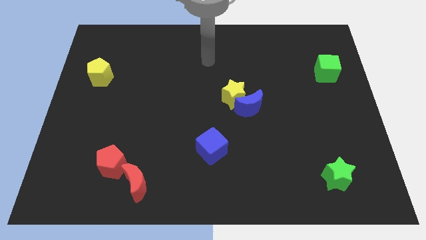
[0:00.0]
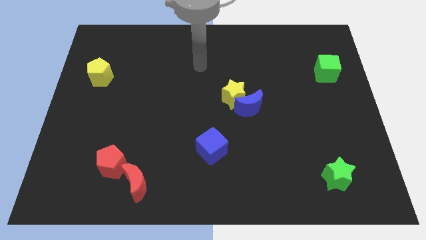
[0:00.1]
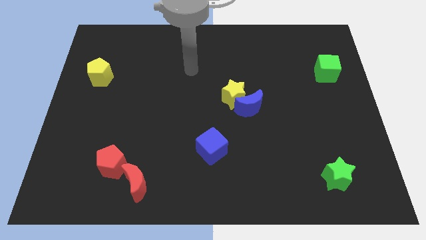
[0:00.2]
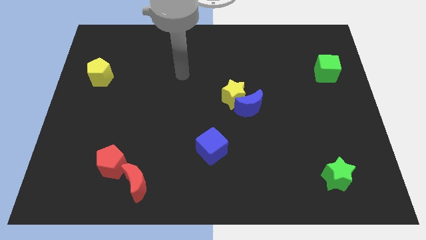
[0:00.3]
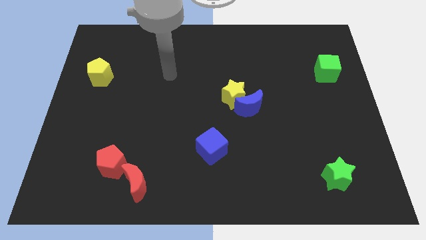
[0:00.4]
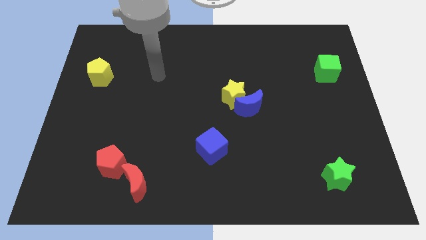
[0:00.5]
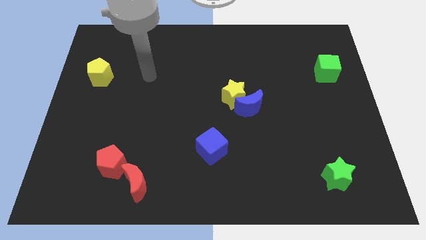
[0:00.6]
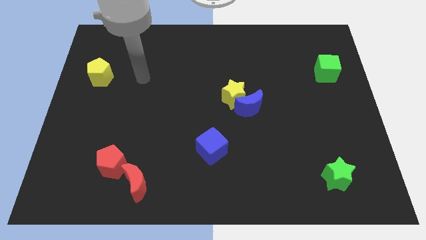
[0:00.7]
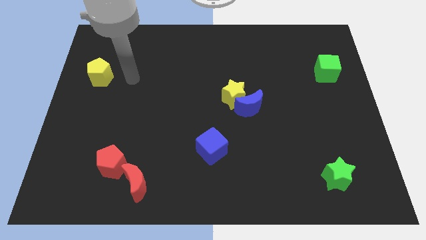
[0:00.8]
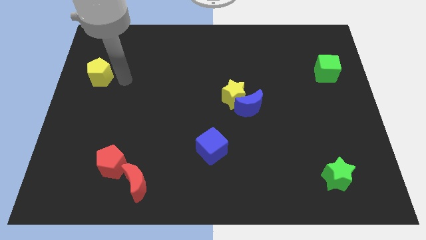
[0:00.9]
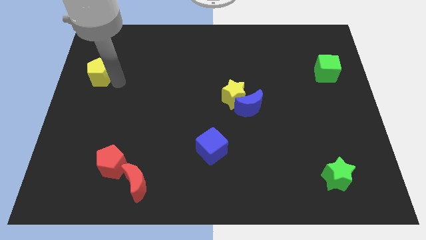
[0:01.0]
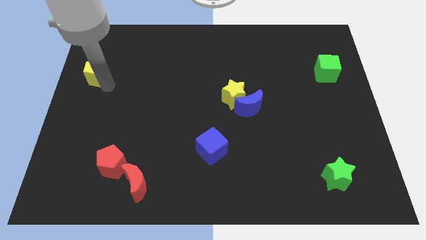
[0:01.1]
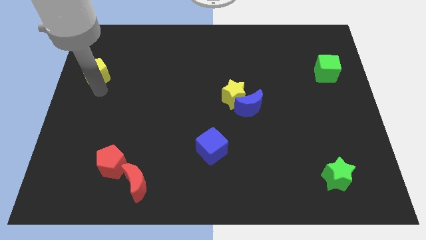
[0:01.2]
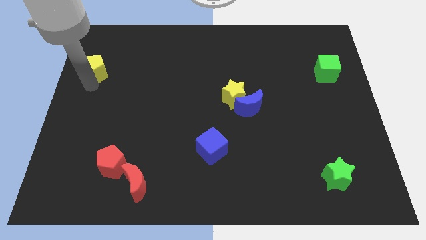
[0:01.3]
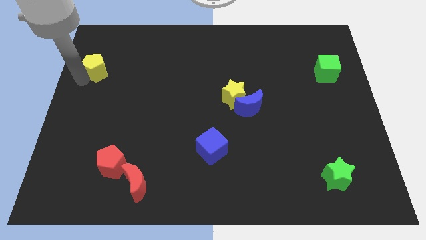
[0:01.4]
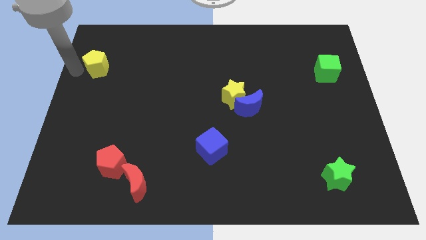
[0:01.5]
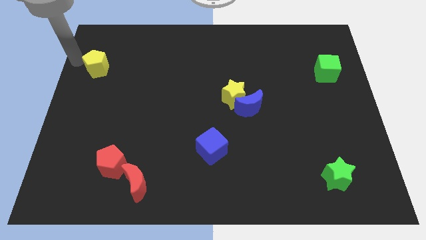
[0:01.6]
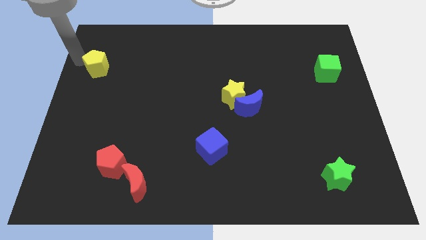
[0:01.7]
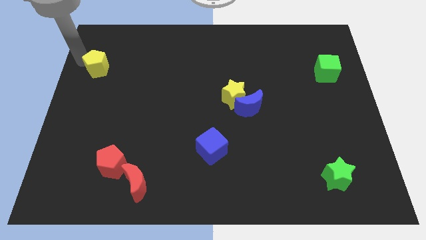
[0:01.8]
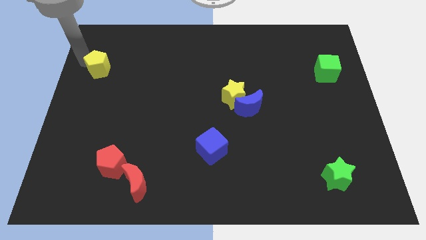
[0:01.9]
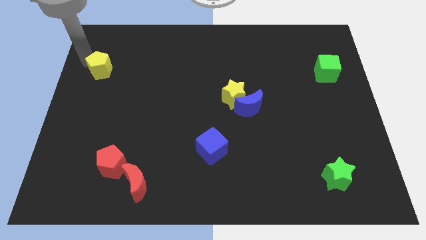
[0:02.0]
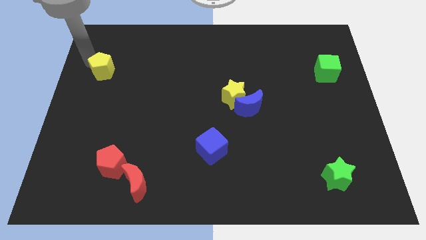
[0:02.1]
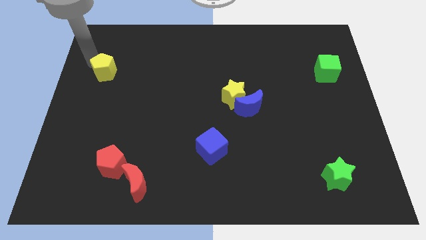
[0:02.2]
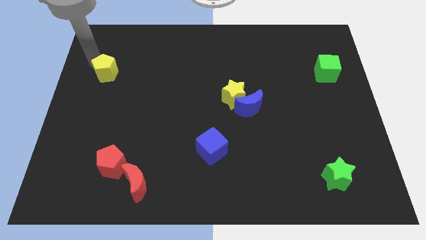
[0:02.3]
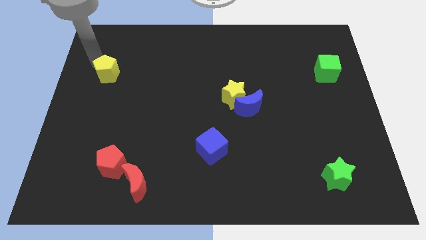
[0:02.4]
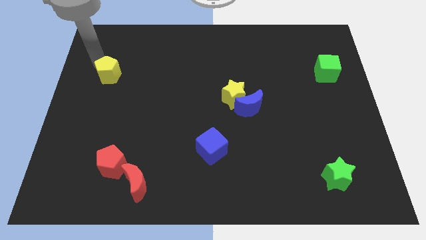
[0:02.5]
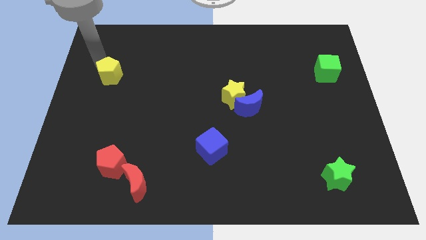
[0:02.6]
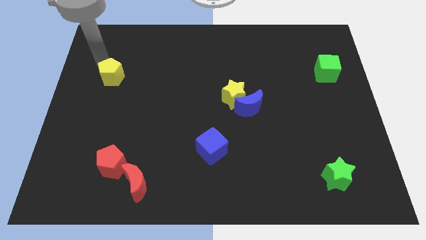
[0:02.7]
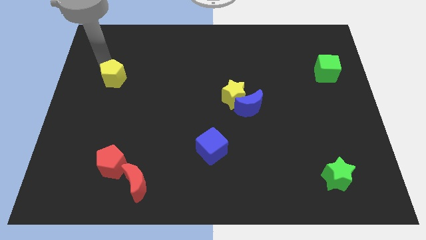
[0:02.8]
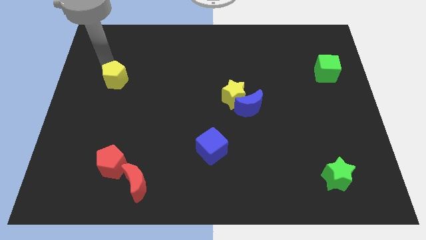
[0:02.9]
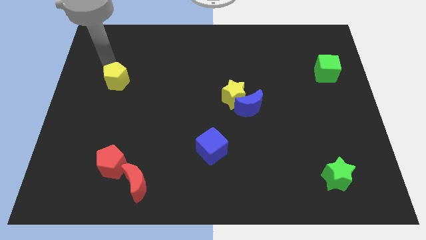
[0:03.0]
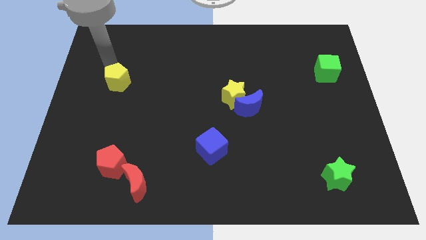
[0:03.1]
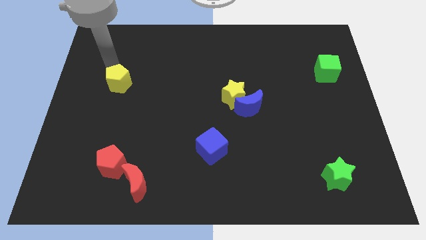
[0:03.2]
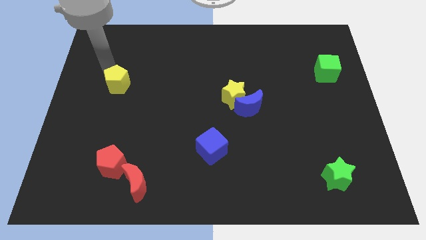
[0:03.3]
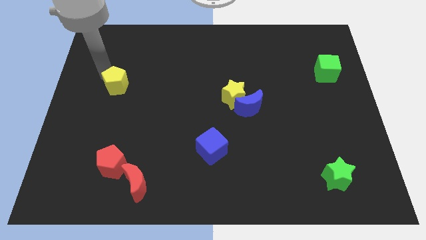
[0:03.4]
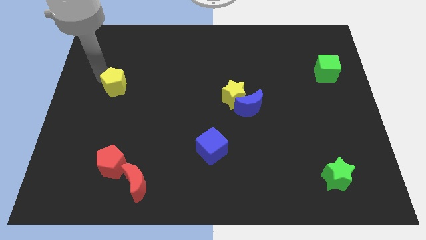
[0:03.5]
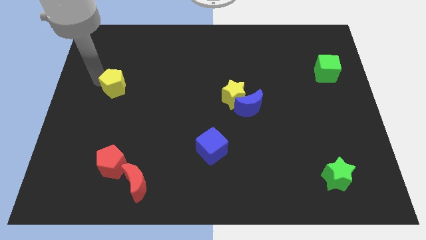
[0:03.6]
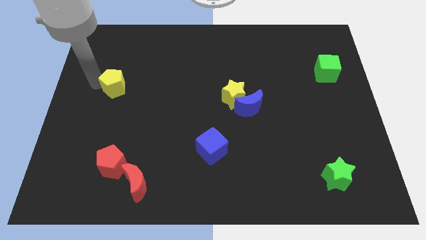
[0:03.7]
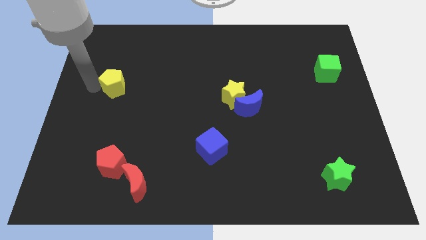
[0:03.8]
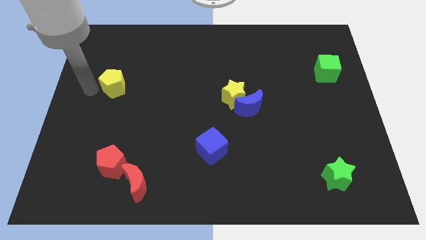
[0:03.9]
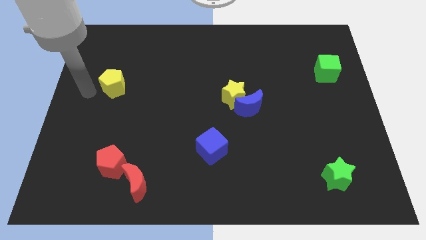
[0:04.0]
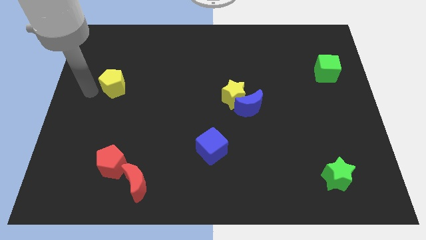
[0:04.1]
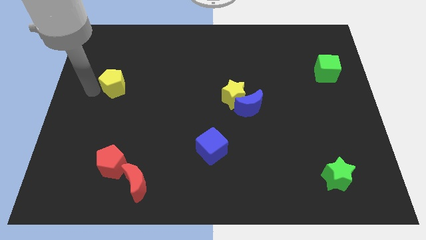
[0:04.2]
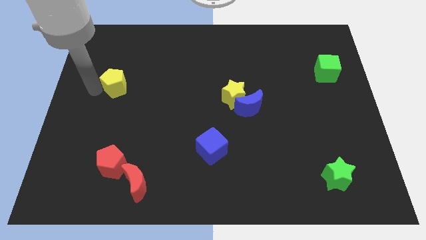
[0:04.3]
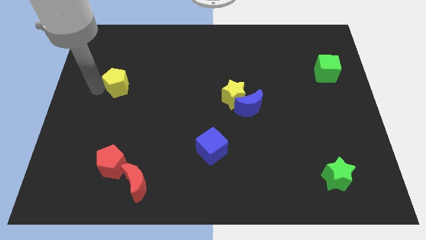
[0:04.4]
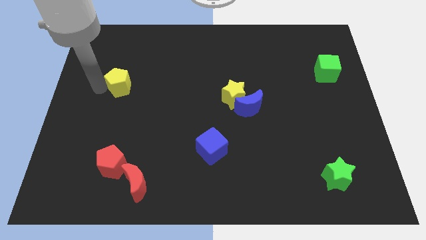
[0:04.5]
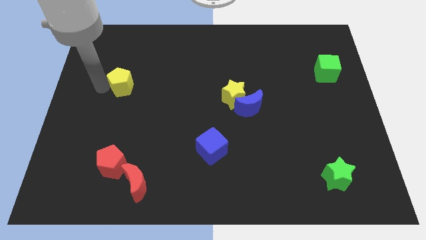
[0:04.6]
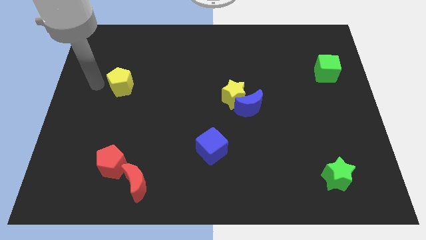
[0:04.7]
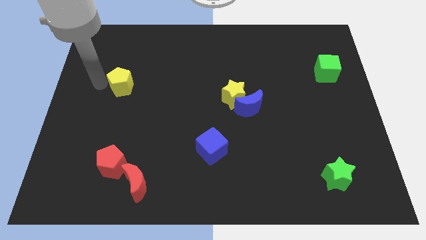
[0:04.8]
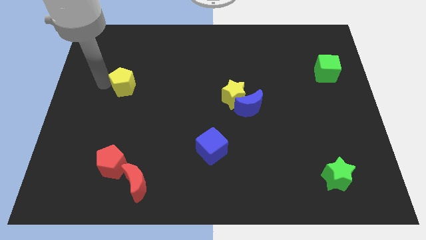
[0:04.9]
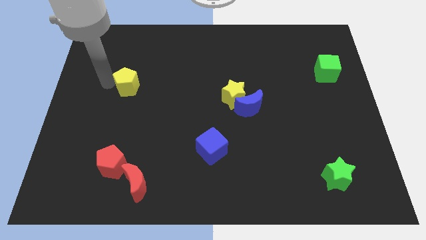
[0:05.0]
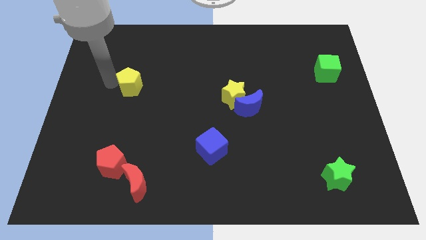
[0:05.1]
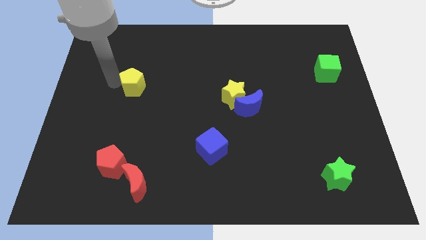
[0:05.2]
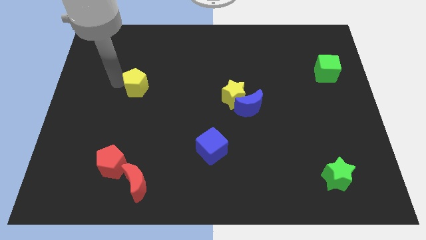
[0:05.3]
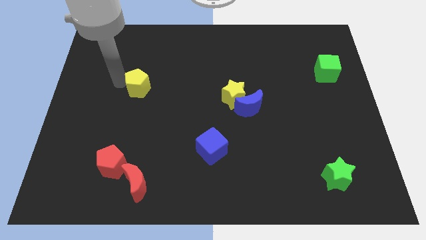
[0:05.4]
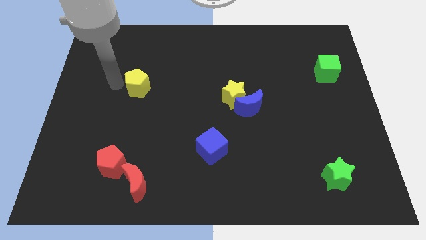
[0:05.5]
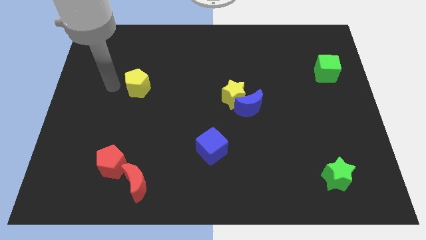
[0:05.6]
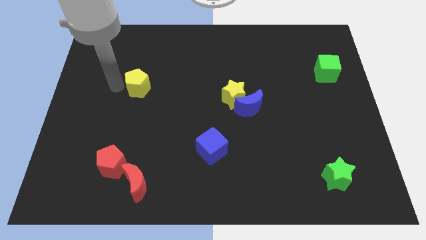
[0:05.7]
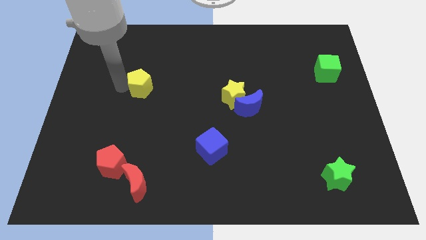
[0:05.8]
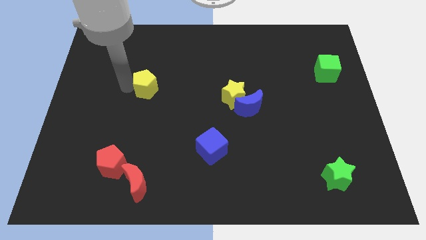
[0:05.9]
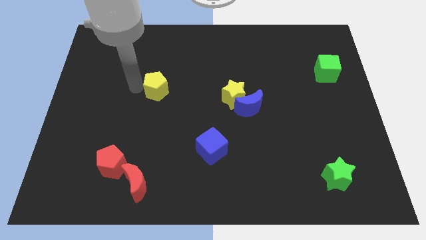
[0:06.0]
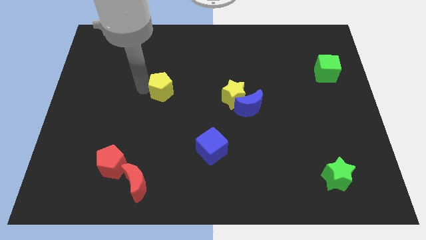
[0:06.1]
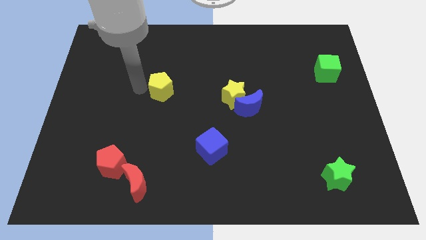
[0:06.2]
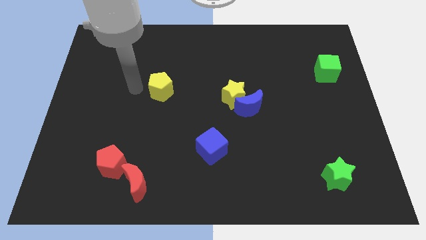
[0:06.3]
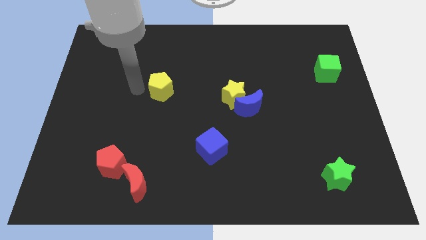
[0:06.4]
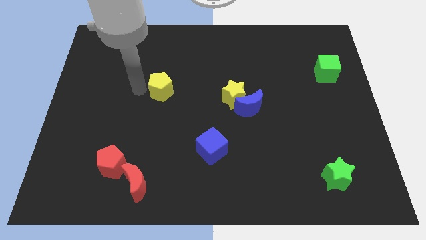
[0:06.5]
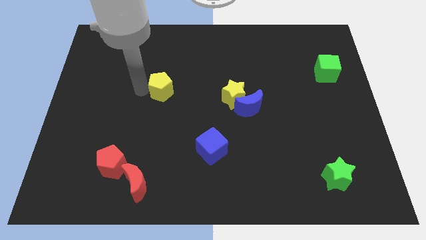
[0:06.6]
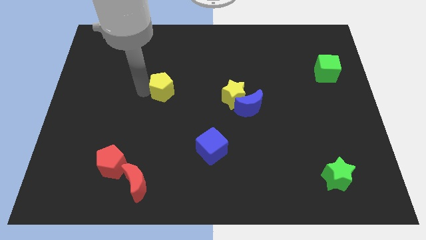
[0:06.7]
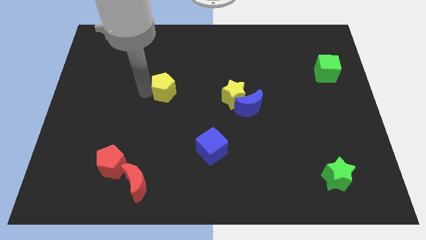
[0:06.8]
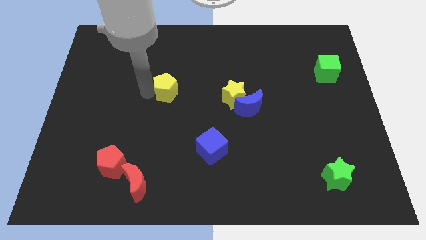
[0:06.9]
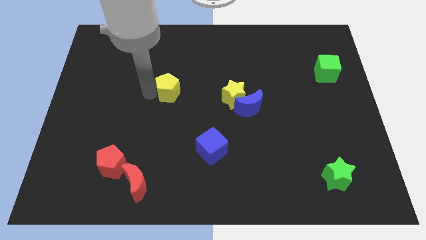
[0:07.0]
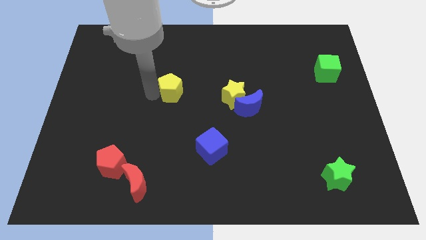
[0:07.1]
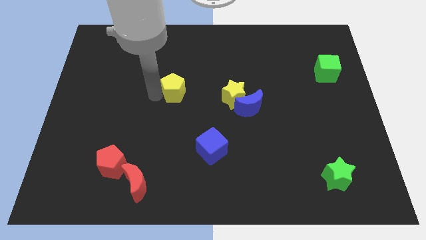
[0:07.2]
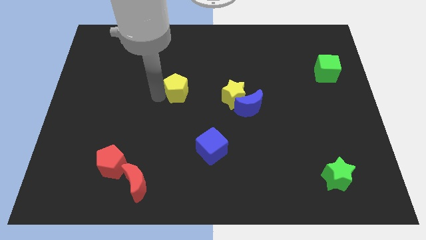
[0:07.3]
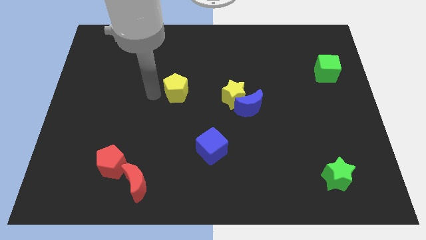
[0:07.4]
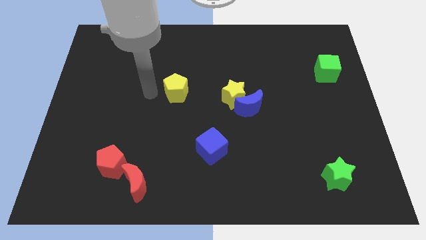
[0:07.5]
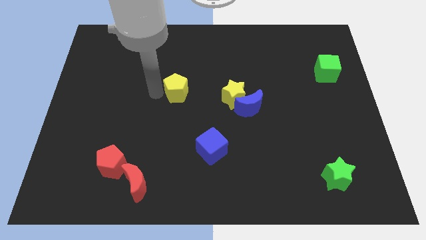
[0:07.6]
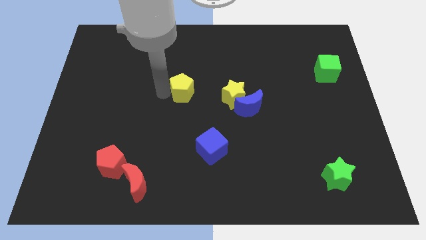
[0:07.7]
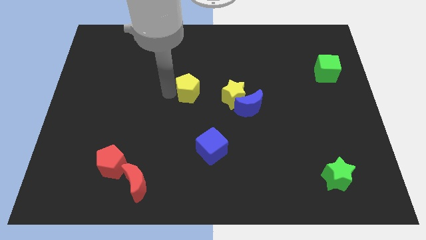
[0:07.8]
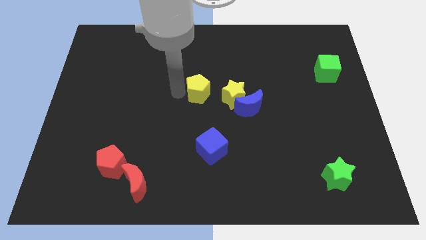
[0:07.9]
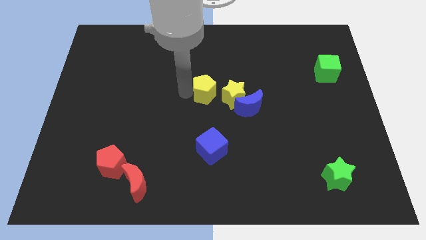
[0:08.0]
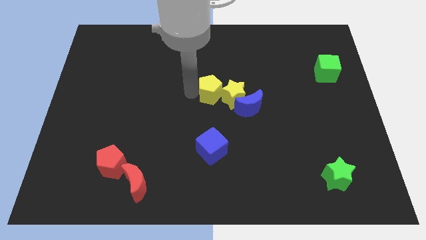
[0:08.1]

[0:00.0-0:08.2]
slide the yellow pentagon to the yellow star
